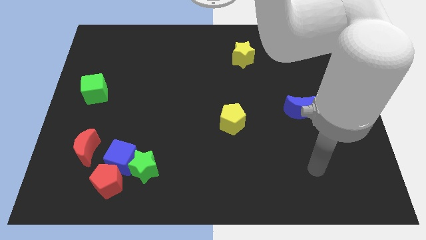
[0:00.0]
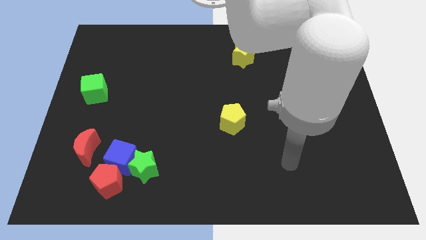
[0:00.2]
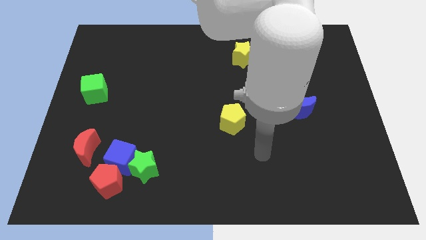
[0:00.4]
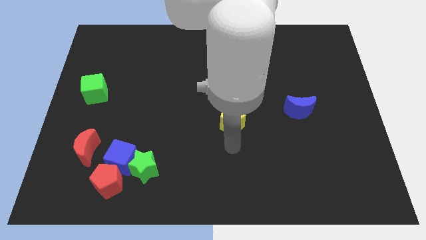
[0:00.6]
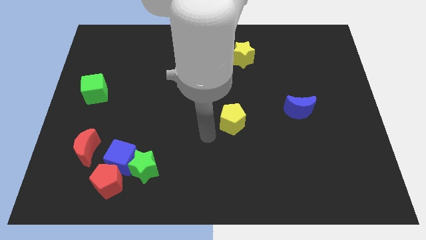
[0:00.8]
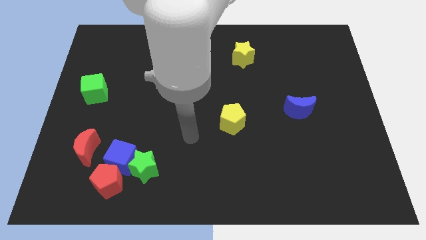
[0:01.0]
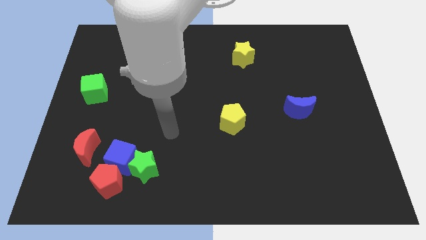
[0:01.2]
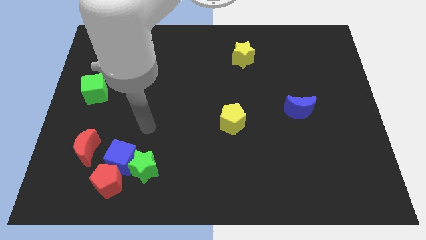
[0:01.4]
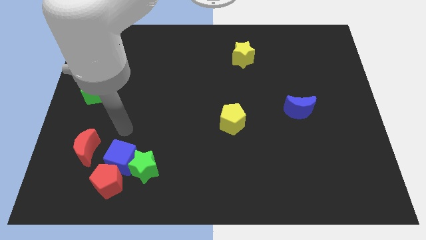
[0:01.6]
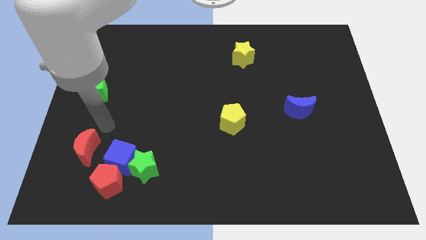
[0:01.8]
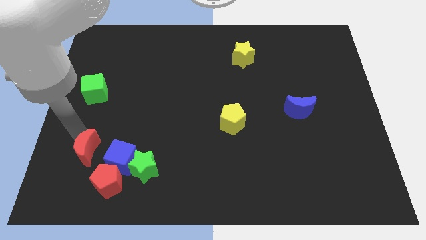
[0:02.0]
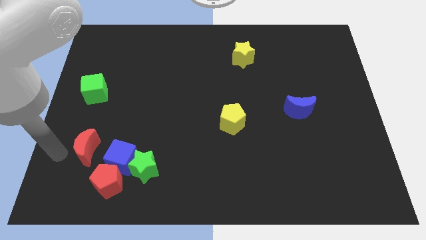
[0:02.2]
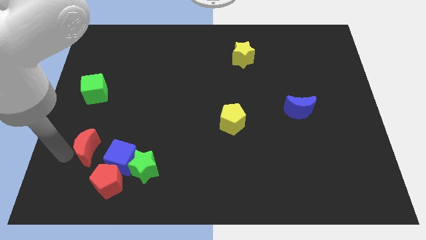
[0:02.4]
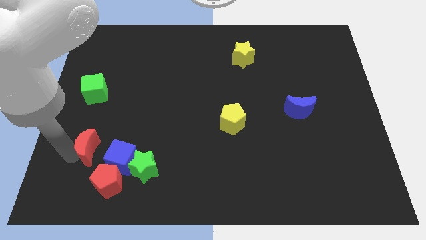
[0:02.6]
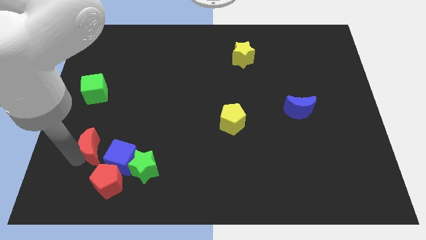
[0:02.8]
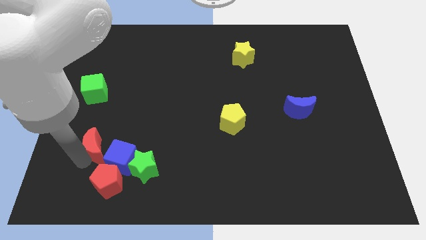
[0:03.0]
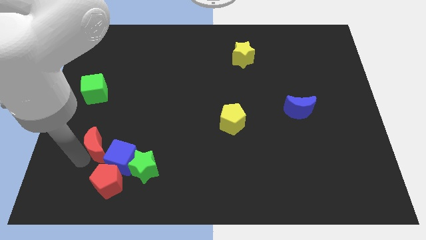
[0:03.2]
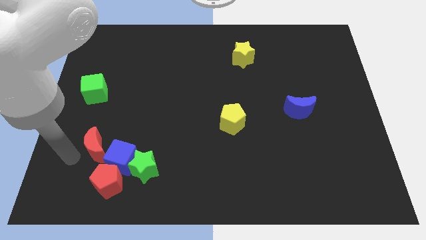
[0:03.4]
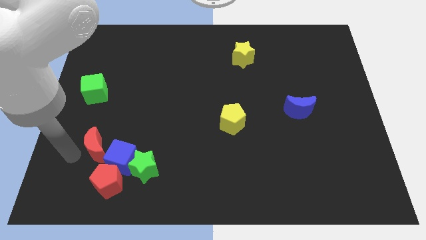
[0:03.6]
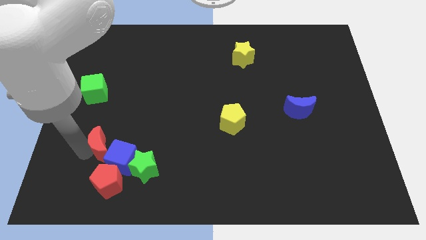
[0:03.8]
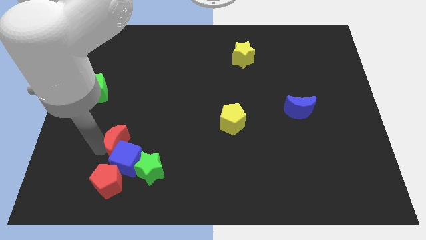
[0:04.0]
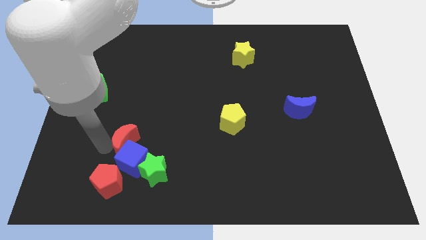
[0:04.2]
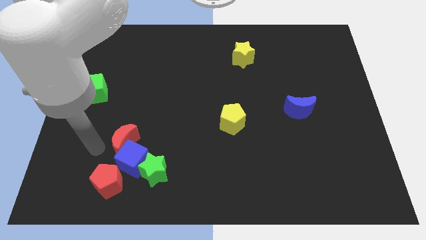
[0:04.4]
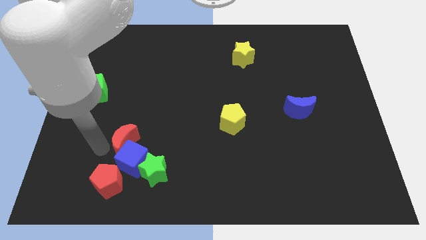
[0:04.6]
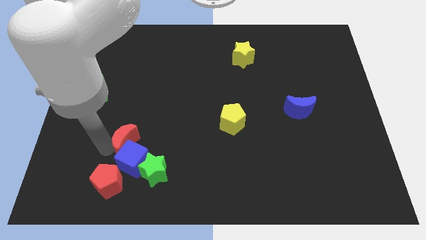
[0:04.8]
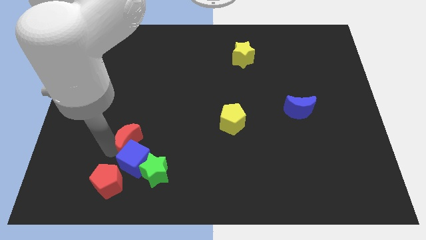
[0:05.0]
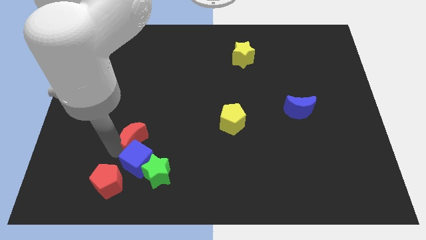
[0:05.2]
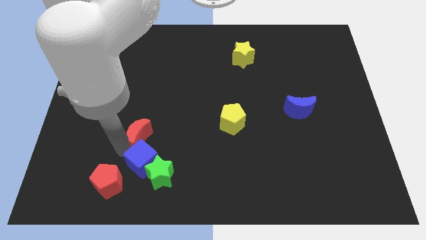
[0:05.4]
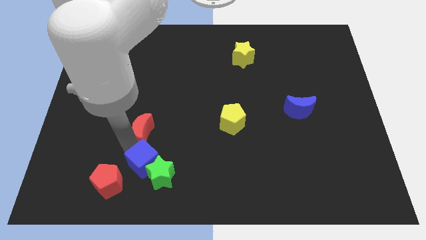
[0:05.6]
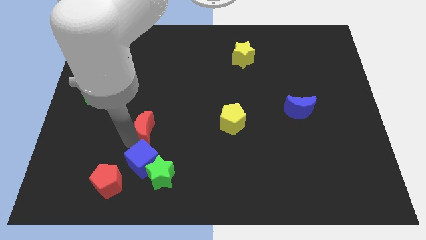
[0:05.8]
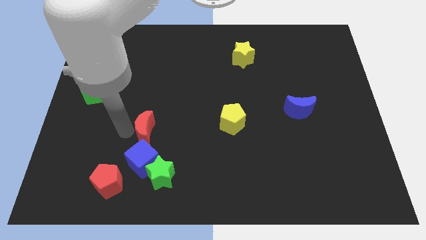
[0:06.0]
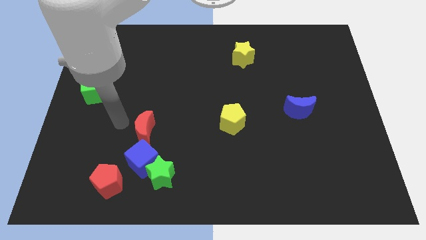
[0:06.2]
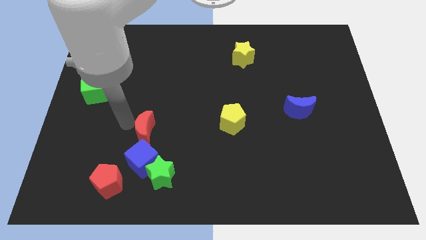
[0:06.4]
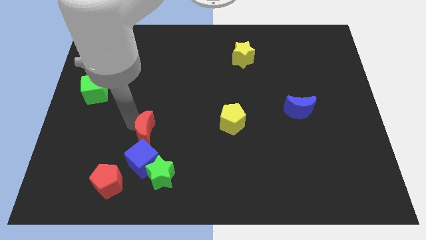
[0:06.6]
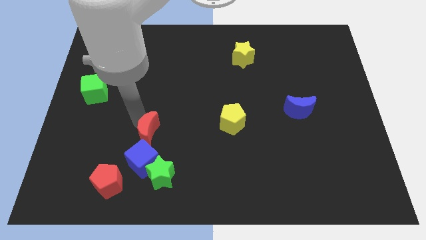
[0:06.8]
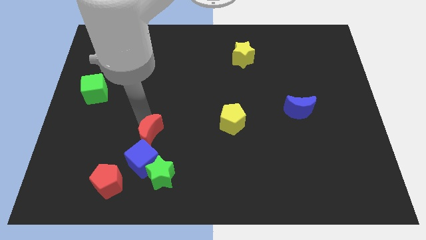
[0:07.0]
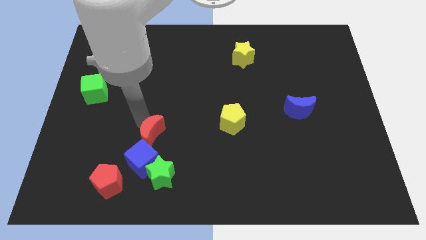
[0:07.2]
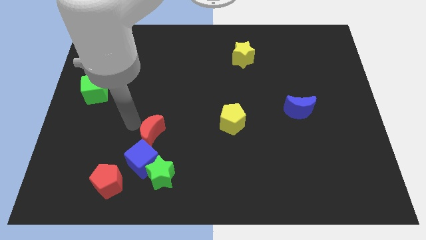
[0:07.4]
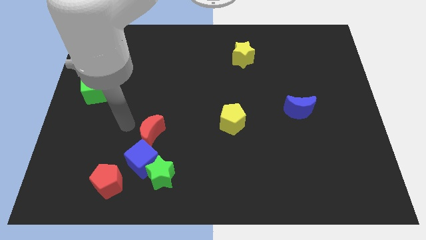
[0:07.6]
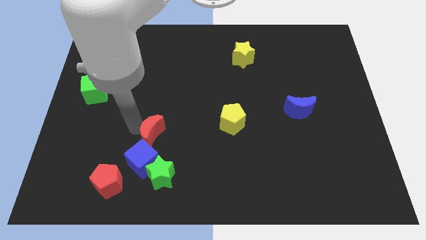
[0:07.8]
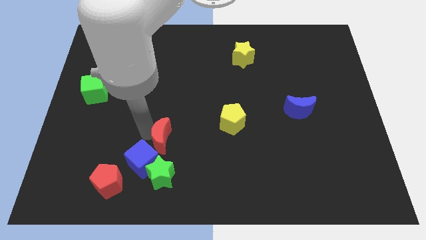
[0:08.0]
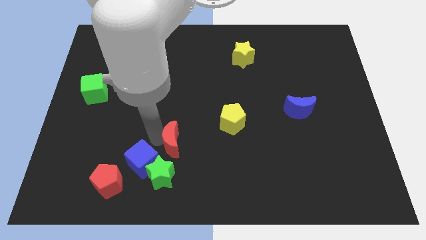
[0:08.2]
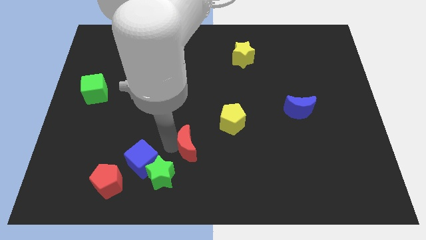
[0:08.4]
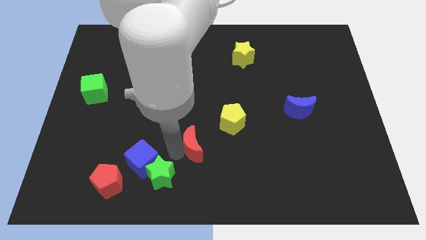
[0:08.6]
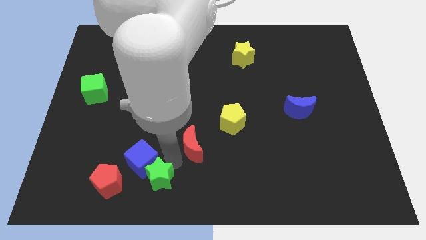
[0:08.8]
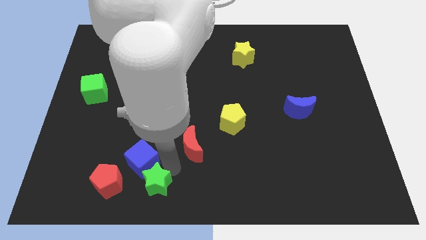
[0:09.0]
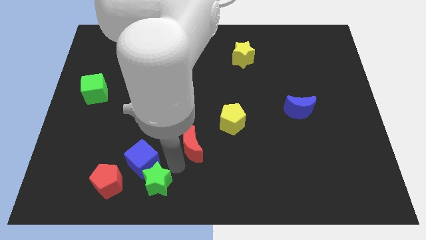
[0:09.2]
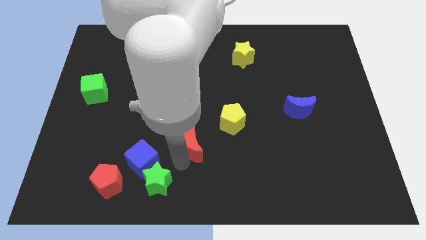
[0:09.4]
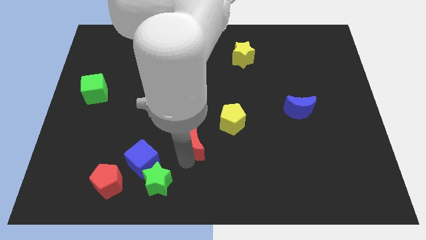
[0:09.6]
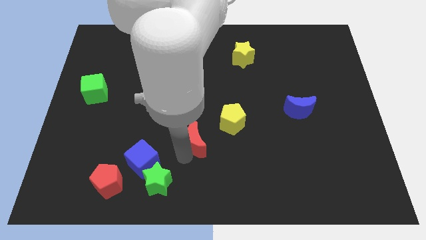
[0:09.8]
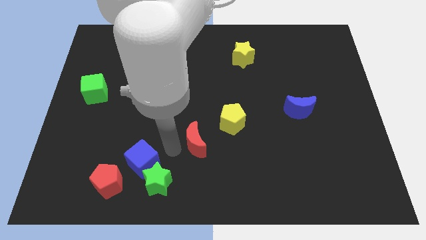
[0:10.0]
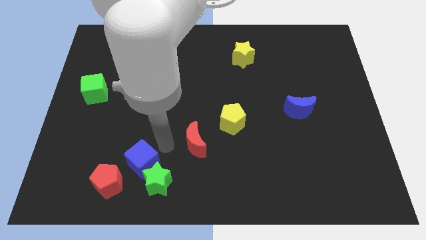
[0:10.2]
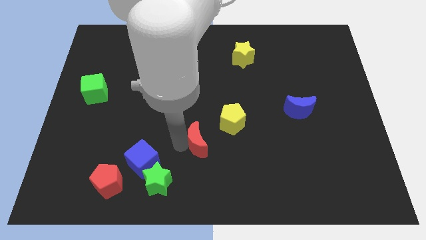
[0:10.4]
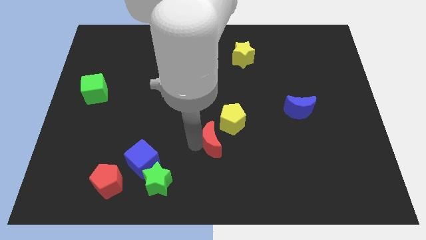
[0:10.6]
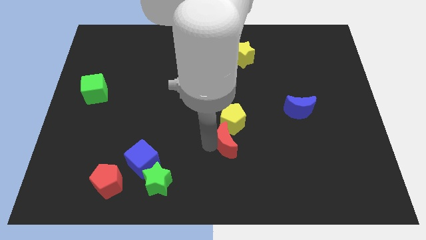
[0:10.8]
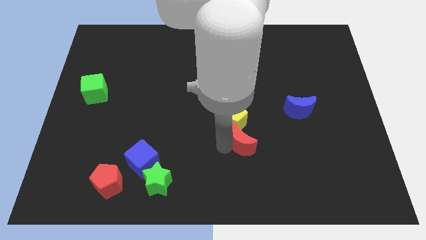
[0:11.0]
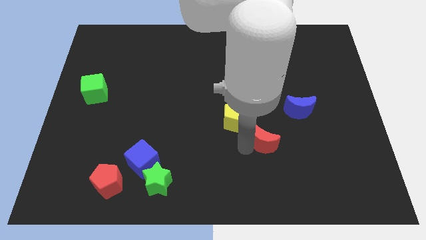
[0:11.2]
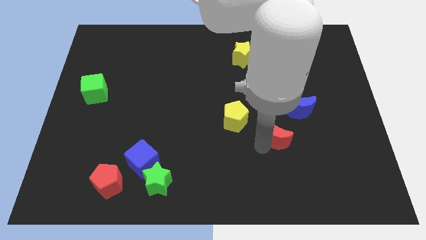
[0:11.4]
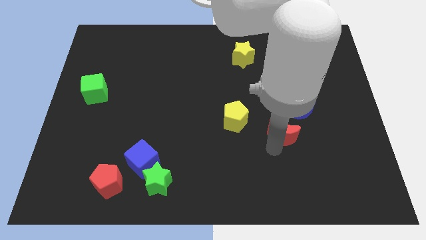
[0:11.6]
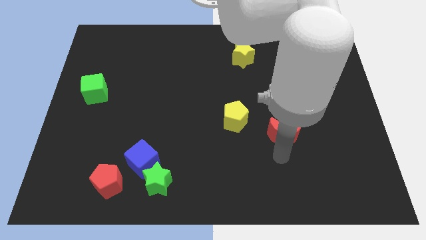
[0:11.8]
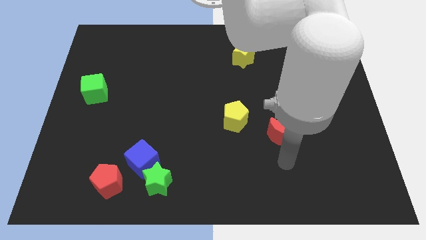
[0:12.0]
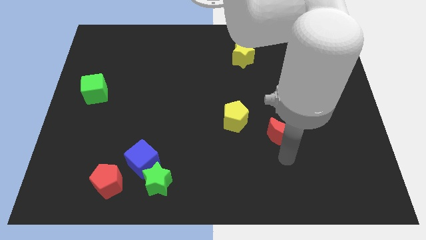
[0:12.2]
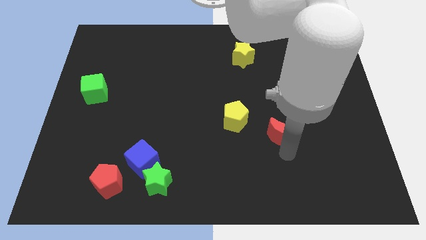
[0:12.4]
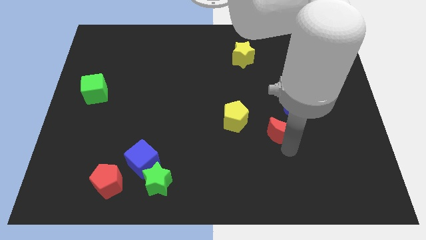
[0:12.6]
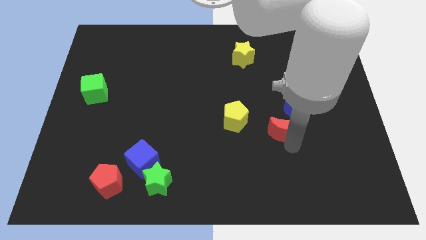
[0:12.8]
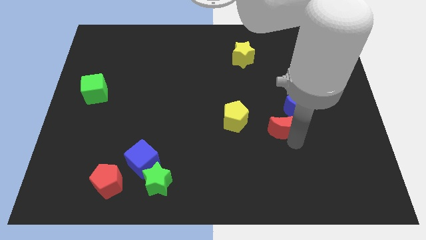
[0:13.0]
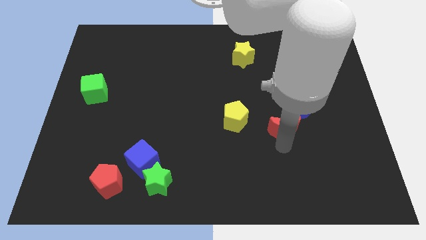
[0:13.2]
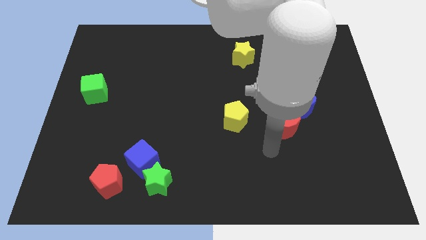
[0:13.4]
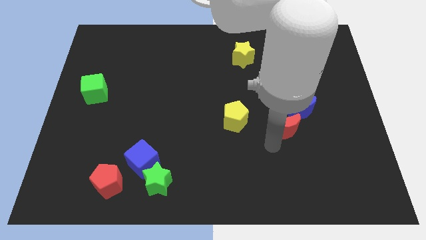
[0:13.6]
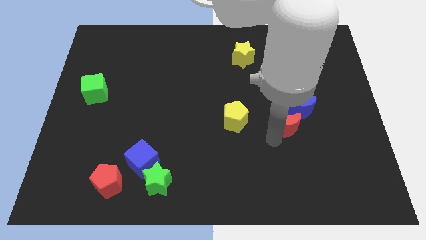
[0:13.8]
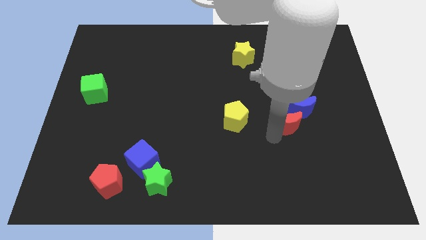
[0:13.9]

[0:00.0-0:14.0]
push the red moon close to the blue moon

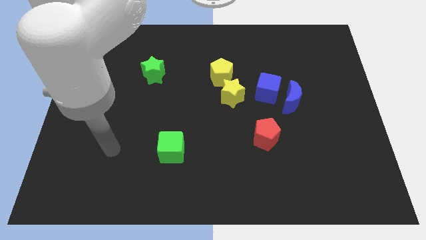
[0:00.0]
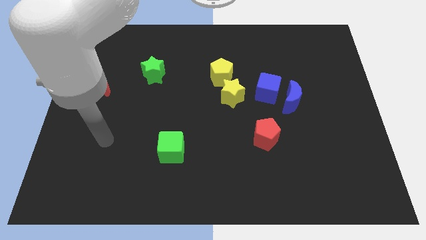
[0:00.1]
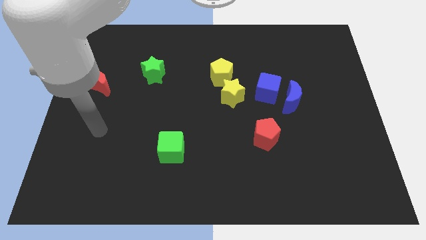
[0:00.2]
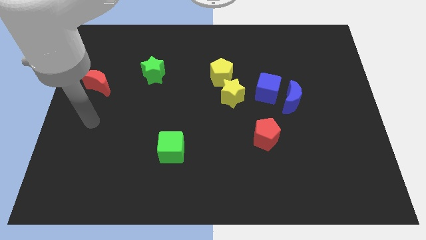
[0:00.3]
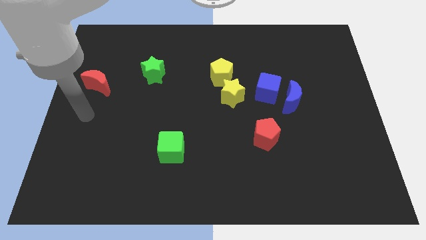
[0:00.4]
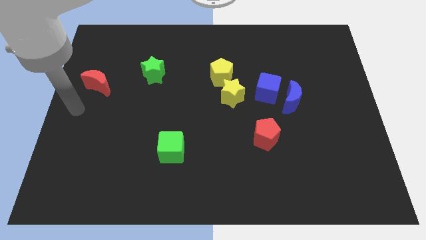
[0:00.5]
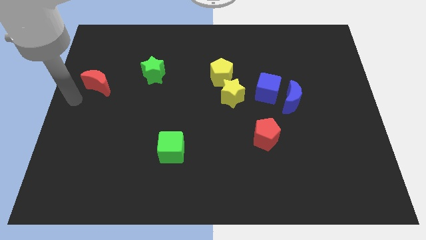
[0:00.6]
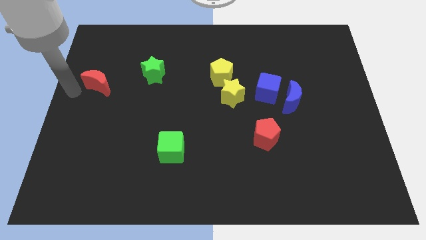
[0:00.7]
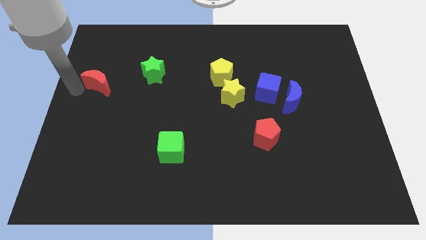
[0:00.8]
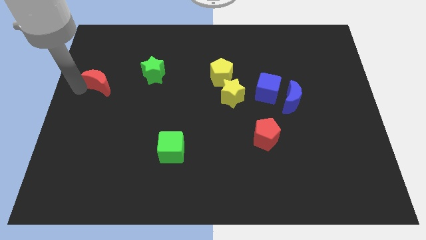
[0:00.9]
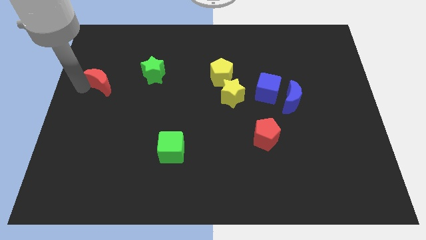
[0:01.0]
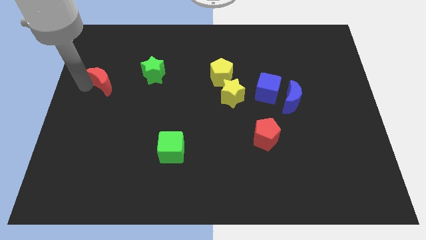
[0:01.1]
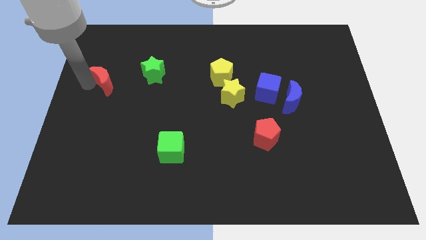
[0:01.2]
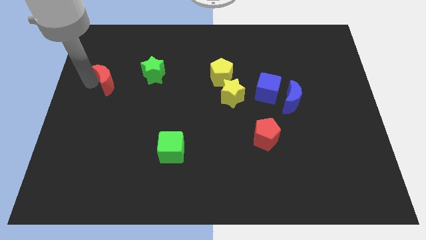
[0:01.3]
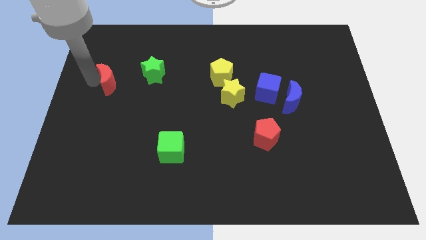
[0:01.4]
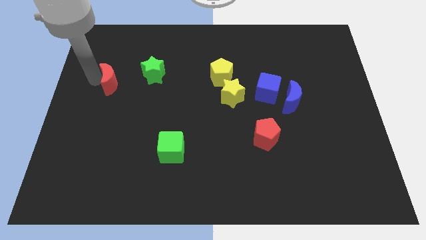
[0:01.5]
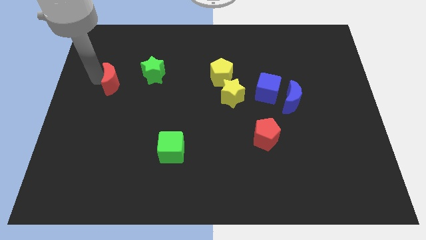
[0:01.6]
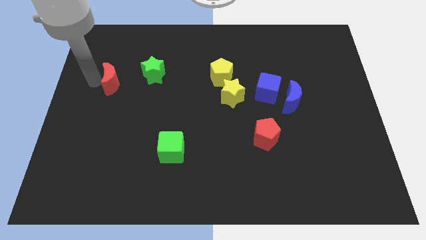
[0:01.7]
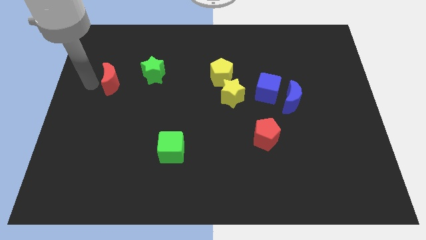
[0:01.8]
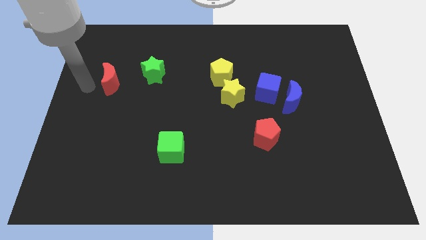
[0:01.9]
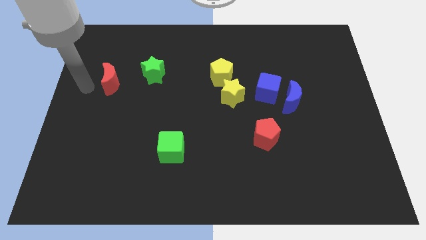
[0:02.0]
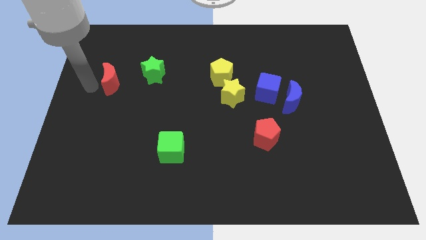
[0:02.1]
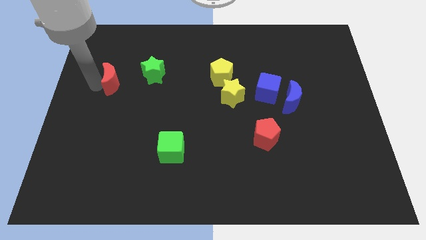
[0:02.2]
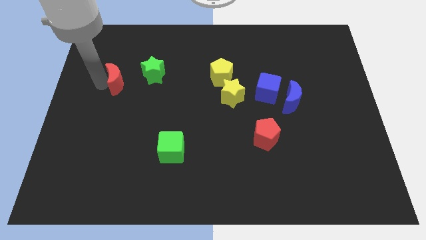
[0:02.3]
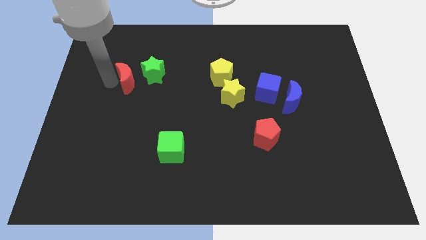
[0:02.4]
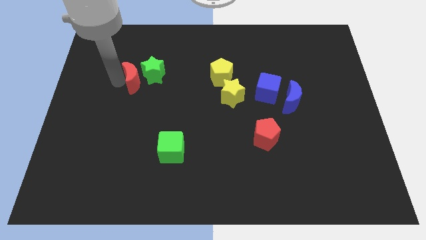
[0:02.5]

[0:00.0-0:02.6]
move the red moon towards the green star
